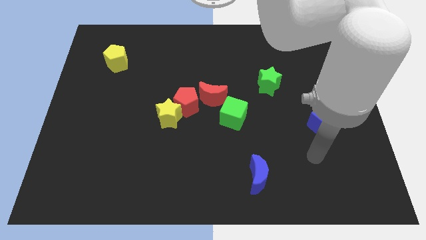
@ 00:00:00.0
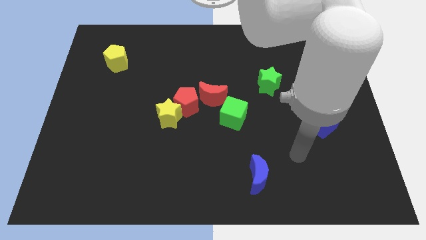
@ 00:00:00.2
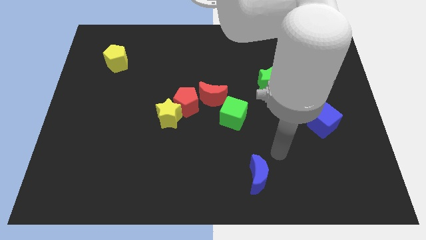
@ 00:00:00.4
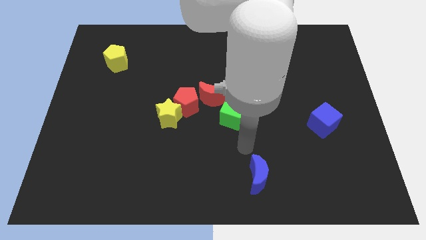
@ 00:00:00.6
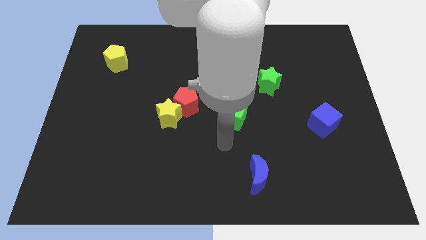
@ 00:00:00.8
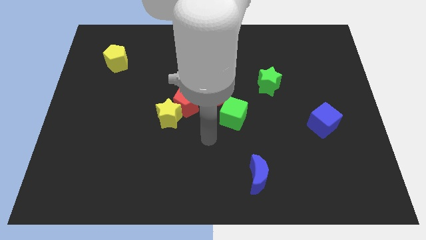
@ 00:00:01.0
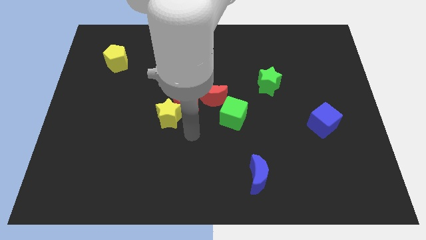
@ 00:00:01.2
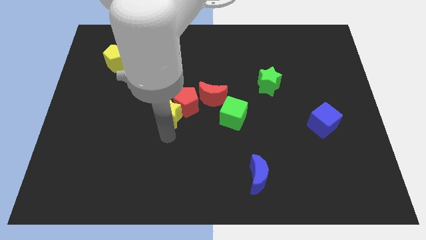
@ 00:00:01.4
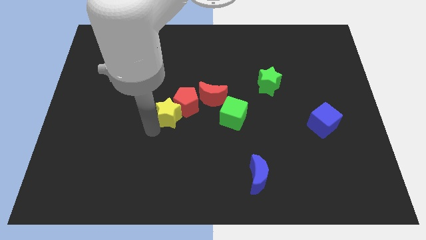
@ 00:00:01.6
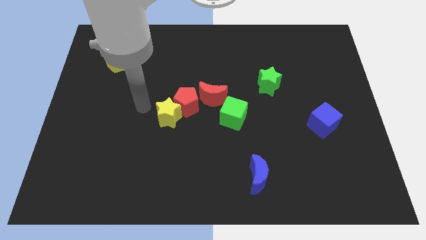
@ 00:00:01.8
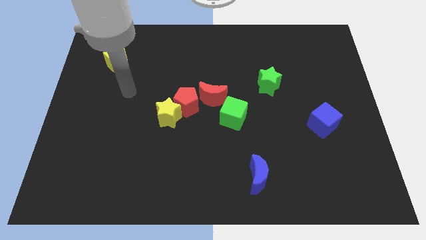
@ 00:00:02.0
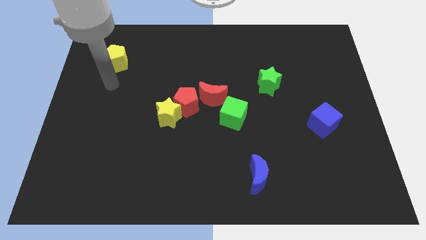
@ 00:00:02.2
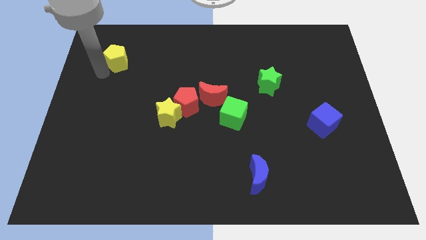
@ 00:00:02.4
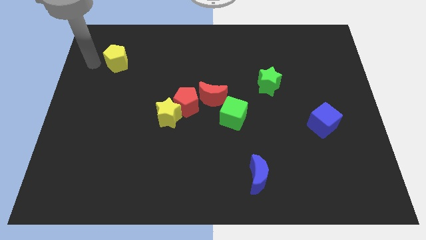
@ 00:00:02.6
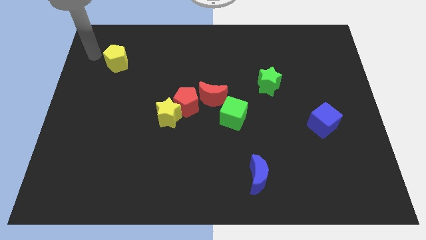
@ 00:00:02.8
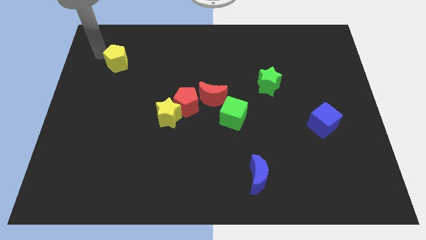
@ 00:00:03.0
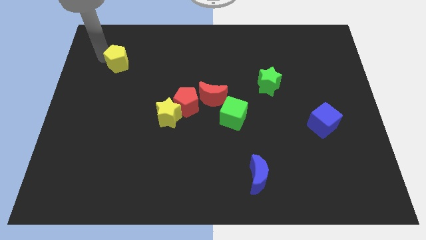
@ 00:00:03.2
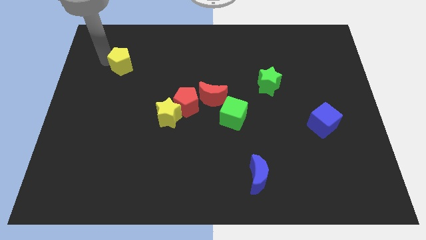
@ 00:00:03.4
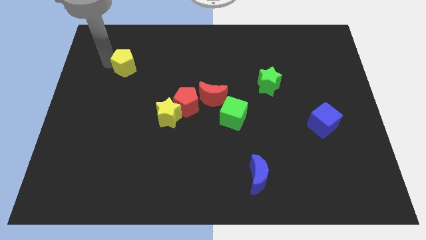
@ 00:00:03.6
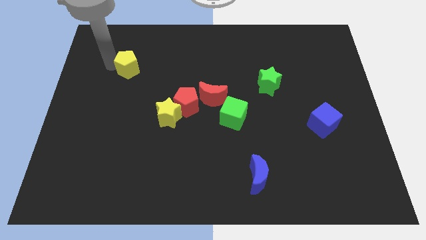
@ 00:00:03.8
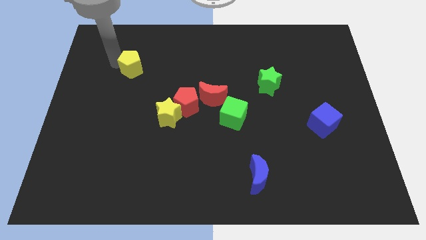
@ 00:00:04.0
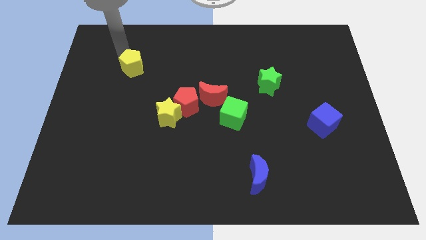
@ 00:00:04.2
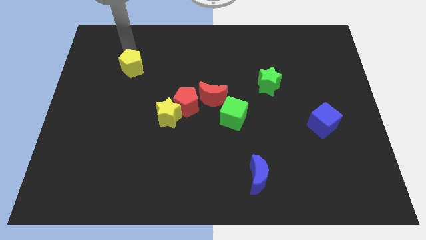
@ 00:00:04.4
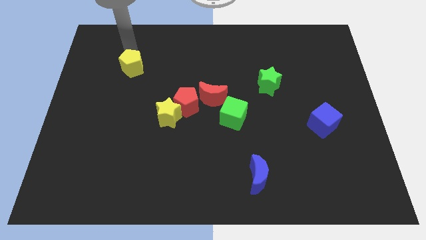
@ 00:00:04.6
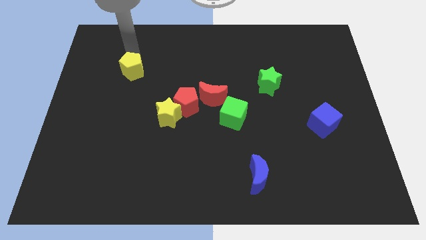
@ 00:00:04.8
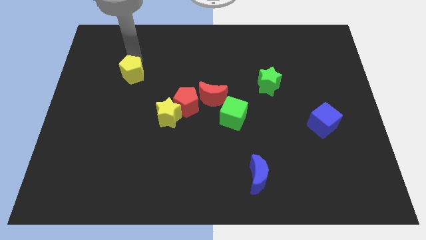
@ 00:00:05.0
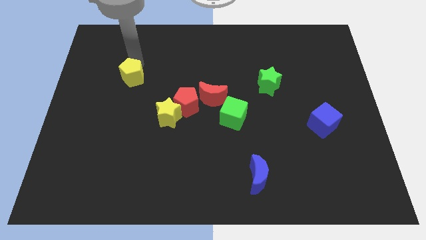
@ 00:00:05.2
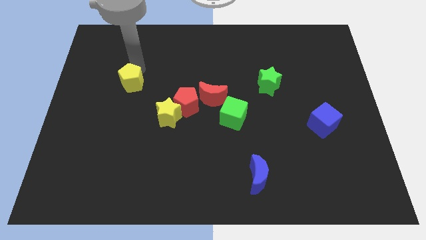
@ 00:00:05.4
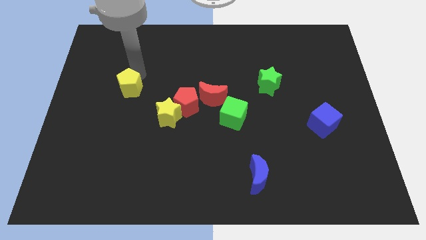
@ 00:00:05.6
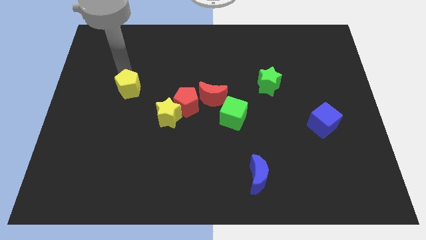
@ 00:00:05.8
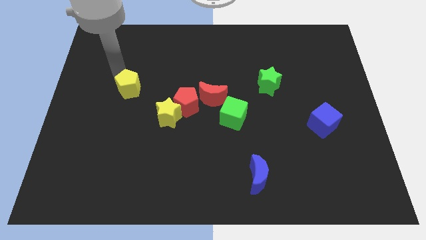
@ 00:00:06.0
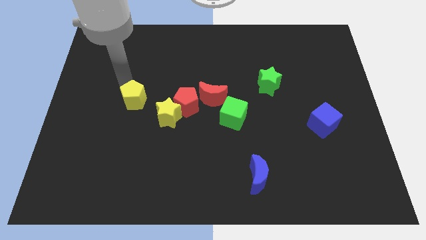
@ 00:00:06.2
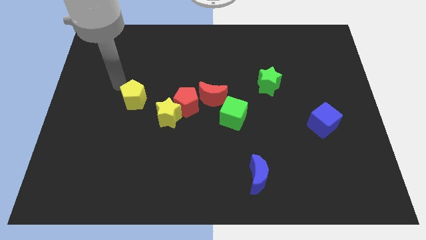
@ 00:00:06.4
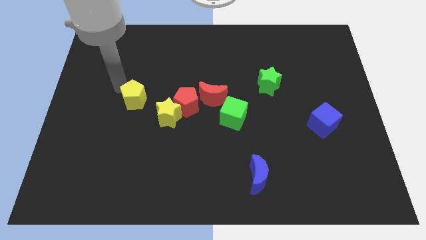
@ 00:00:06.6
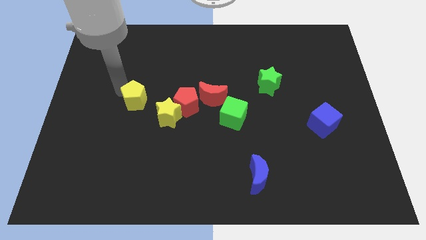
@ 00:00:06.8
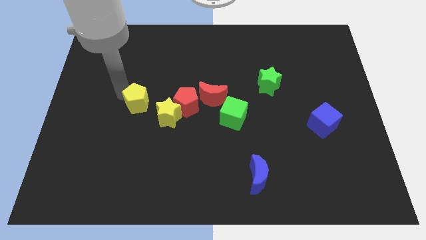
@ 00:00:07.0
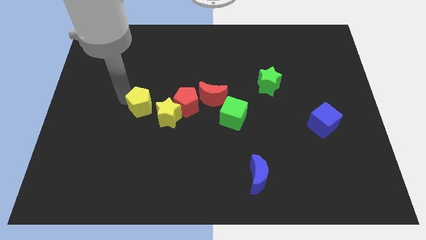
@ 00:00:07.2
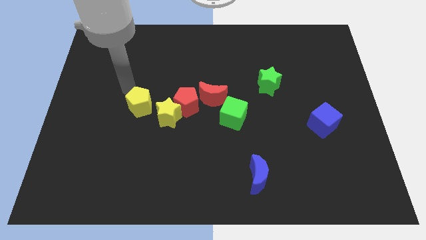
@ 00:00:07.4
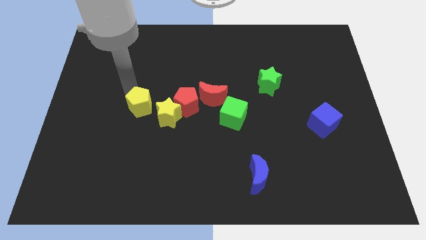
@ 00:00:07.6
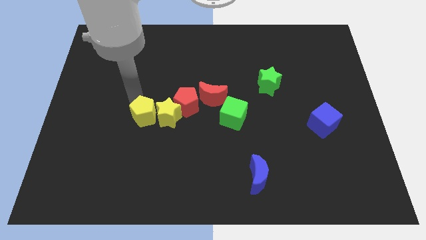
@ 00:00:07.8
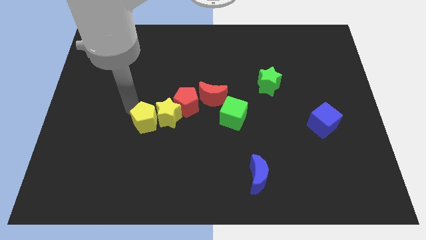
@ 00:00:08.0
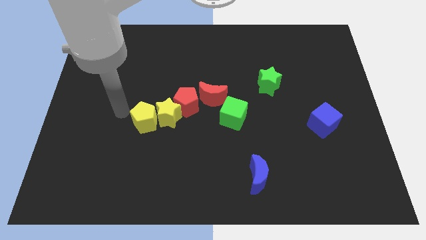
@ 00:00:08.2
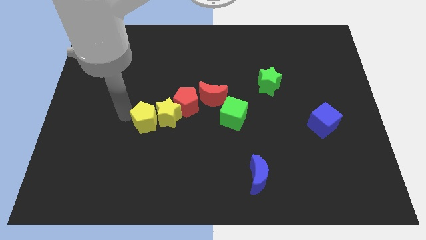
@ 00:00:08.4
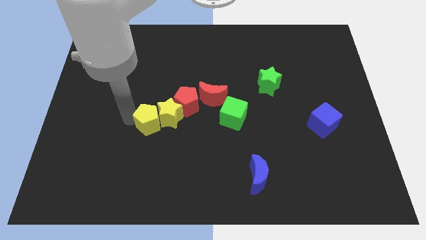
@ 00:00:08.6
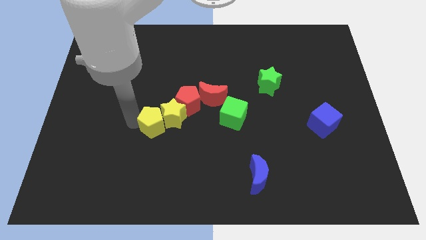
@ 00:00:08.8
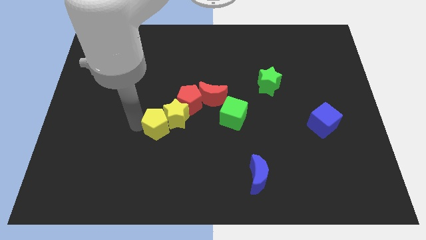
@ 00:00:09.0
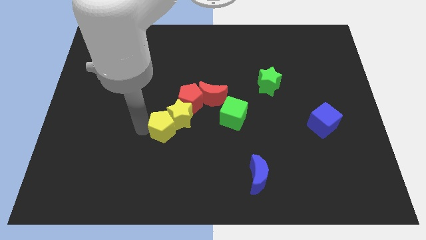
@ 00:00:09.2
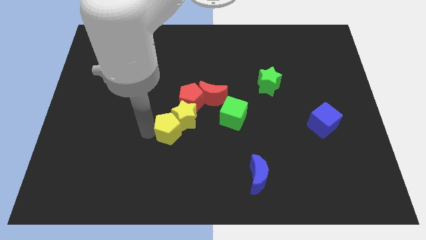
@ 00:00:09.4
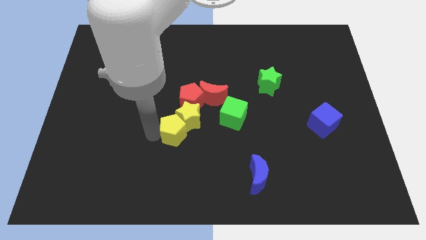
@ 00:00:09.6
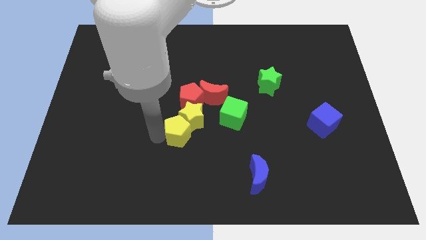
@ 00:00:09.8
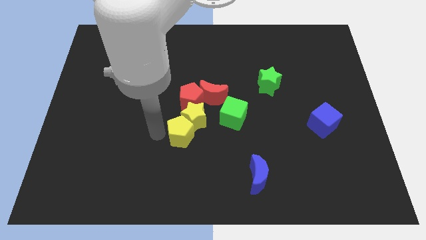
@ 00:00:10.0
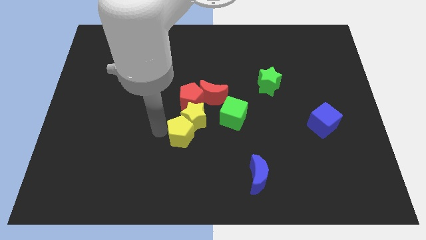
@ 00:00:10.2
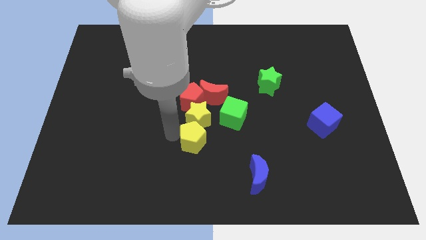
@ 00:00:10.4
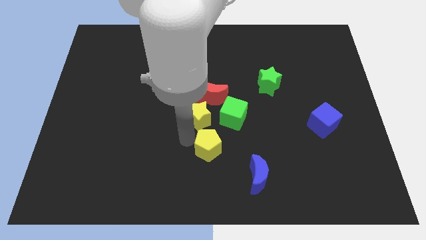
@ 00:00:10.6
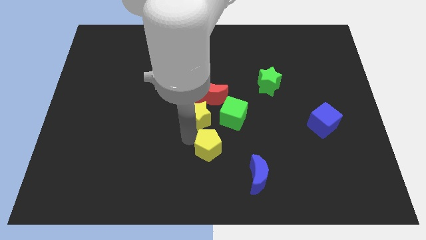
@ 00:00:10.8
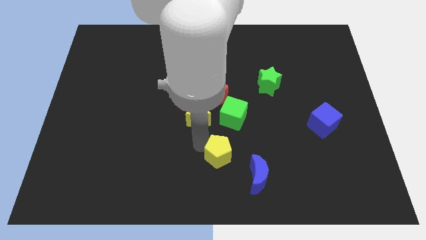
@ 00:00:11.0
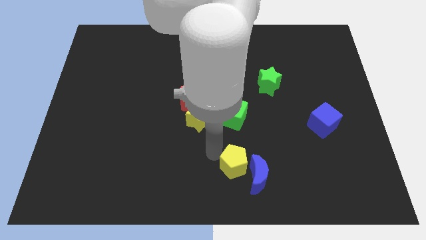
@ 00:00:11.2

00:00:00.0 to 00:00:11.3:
slide the yellow pentagon towards the blue moon

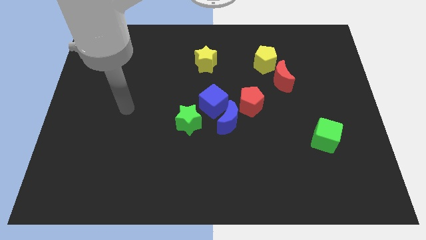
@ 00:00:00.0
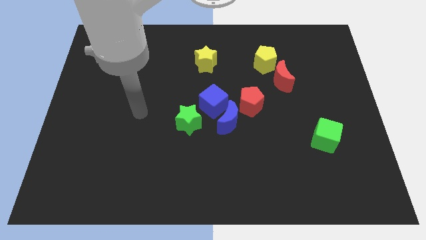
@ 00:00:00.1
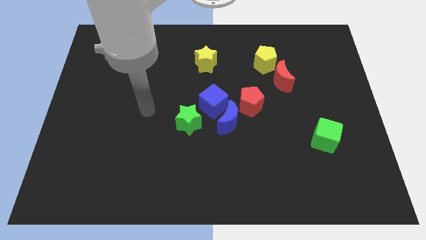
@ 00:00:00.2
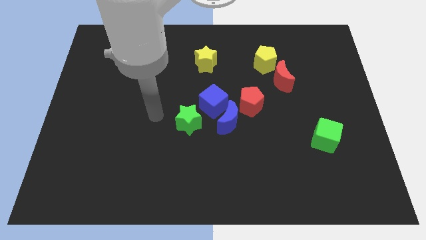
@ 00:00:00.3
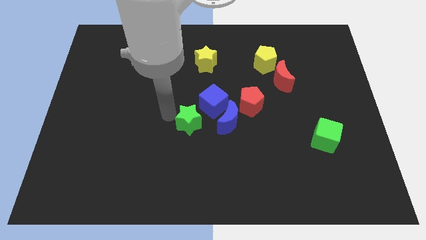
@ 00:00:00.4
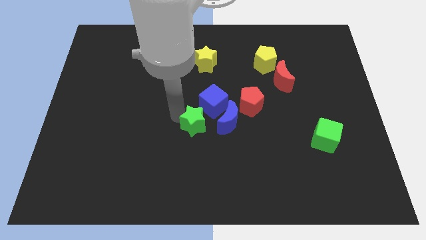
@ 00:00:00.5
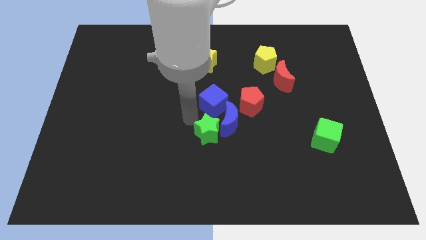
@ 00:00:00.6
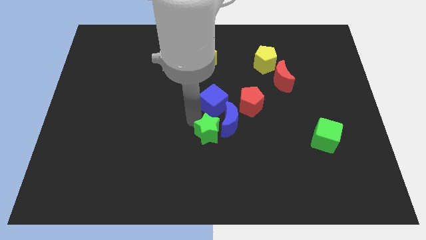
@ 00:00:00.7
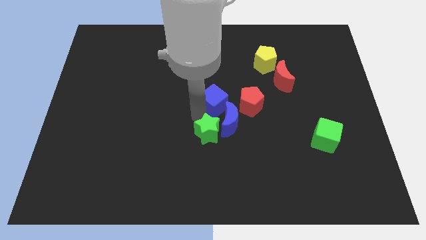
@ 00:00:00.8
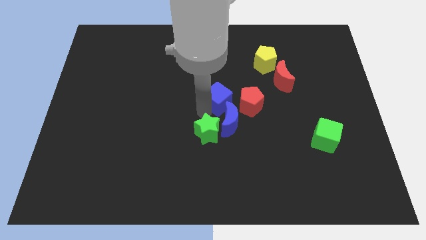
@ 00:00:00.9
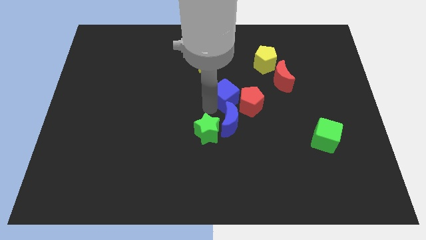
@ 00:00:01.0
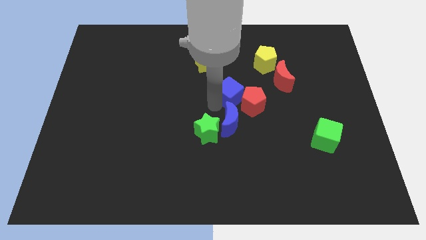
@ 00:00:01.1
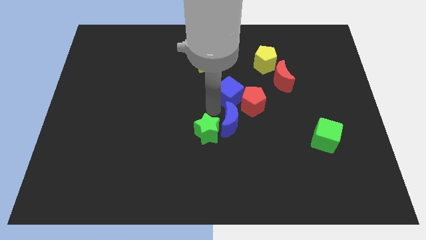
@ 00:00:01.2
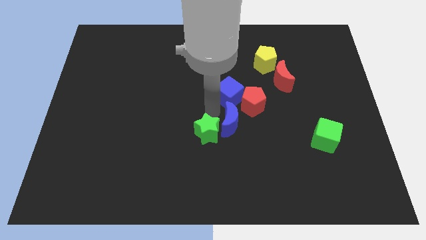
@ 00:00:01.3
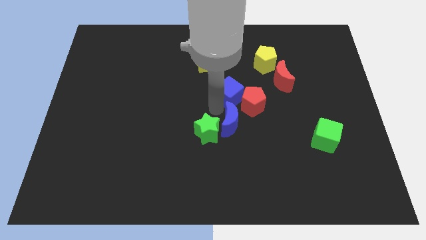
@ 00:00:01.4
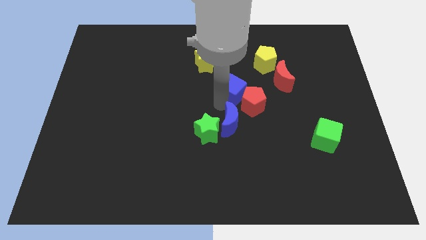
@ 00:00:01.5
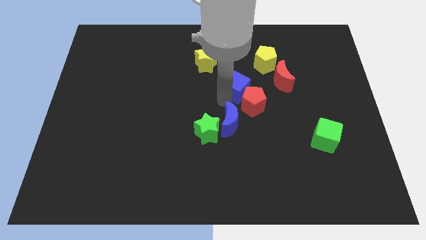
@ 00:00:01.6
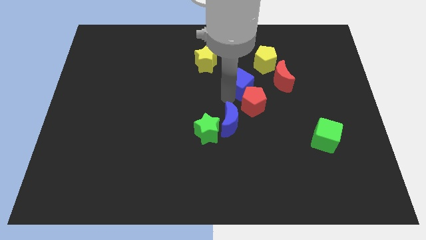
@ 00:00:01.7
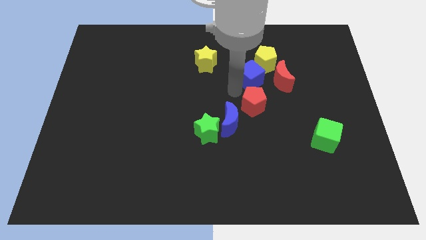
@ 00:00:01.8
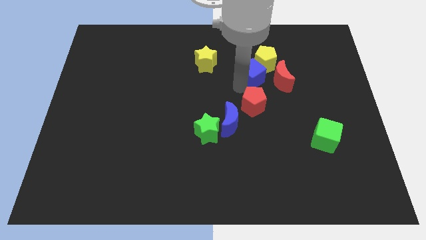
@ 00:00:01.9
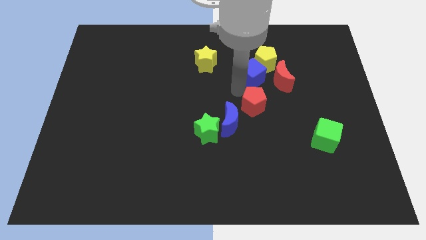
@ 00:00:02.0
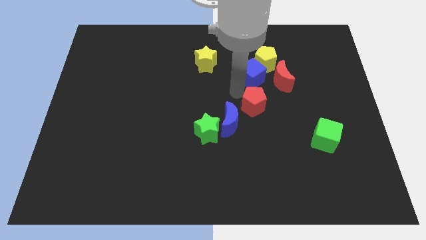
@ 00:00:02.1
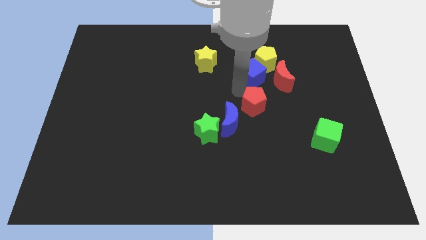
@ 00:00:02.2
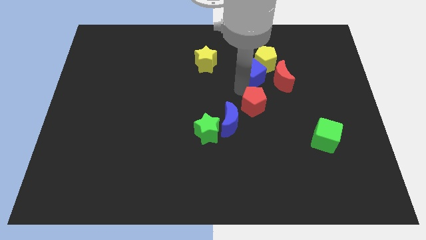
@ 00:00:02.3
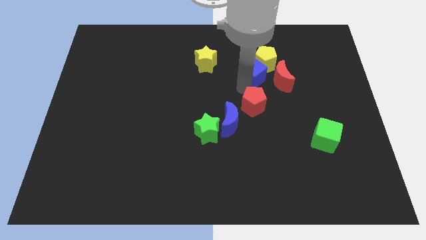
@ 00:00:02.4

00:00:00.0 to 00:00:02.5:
put the blue cube next to the yellow pentagon
